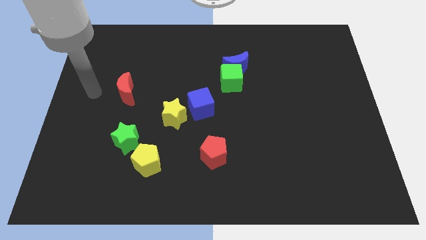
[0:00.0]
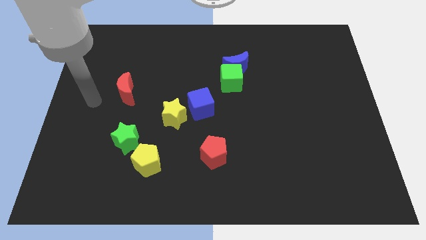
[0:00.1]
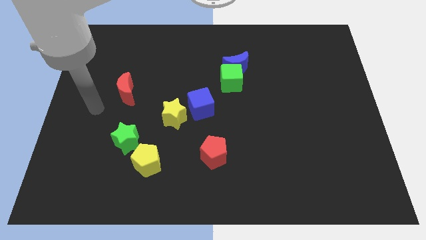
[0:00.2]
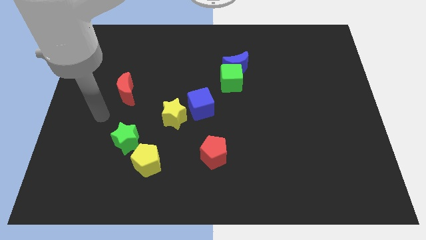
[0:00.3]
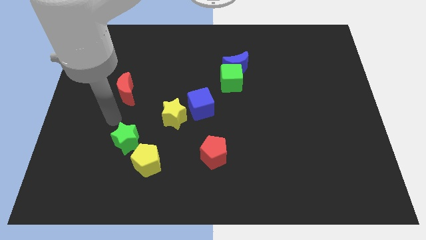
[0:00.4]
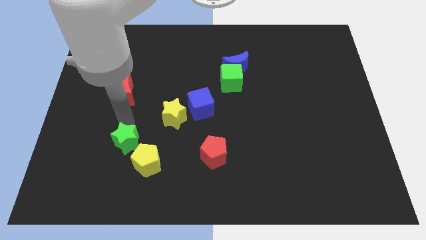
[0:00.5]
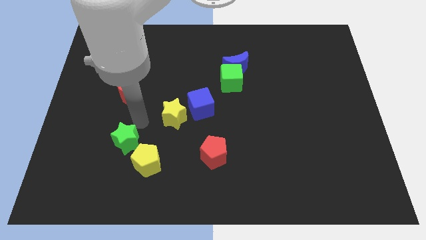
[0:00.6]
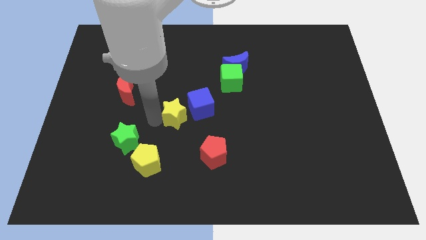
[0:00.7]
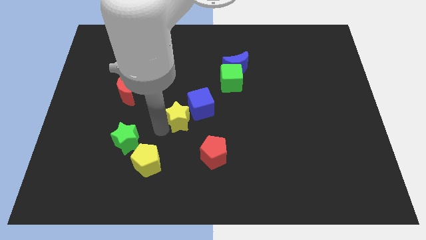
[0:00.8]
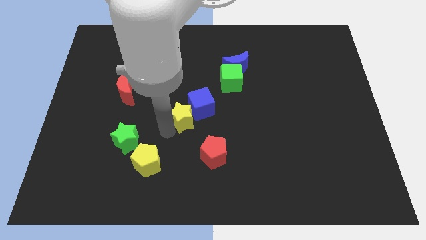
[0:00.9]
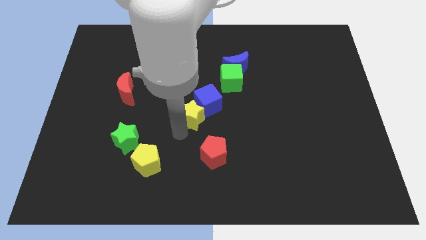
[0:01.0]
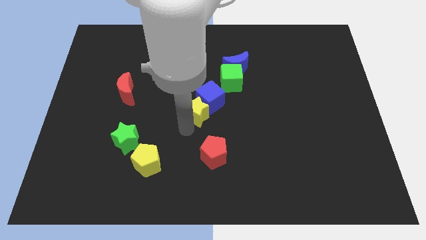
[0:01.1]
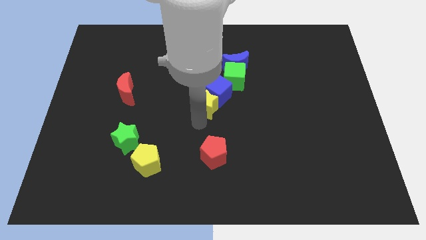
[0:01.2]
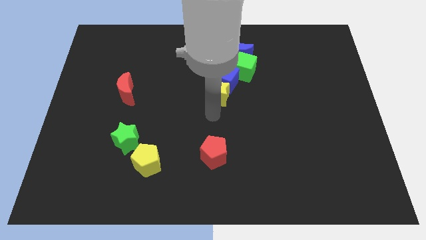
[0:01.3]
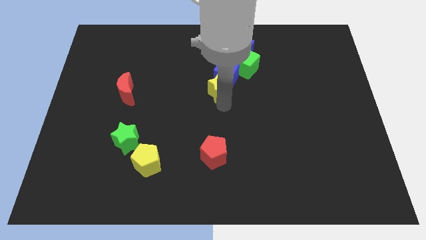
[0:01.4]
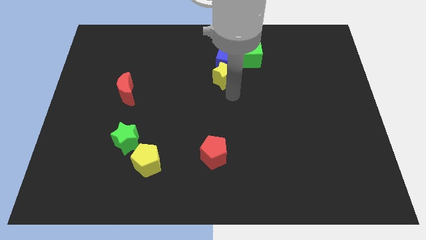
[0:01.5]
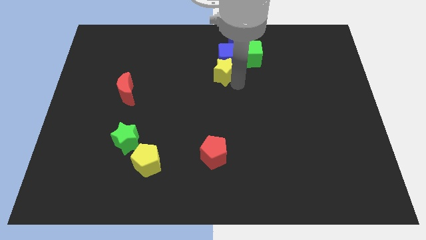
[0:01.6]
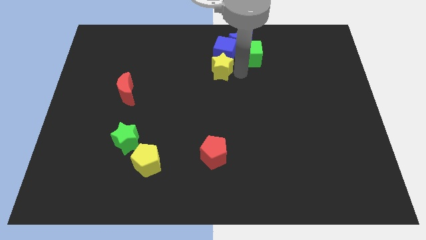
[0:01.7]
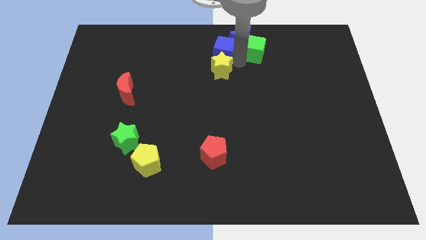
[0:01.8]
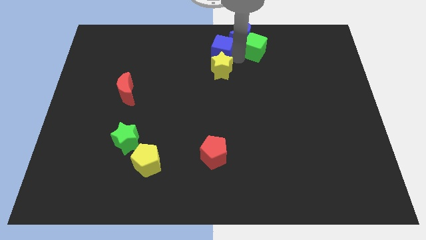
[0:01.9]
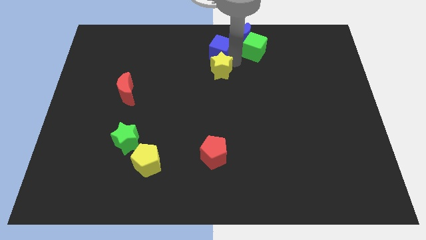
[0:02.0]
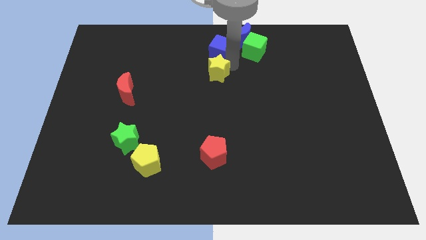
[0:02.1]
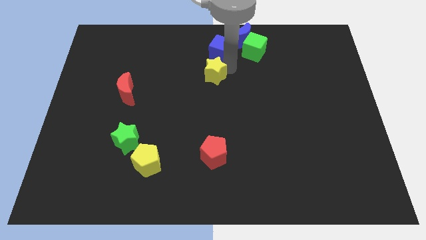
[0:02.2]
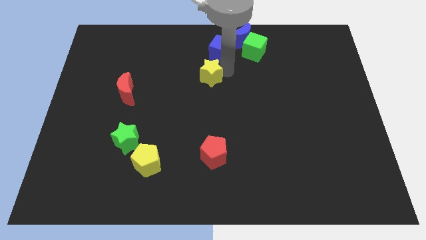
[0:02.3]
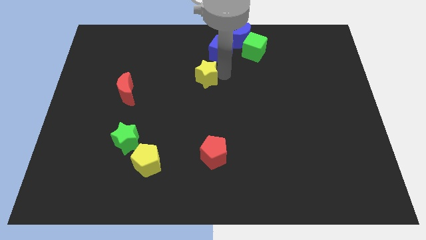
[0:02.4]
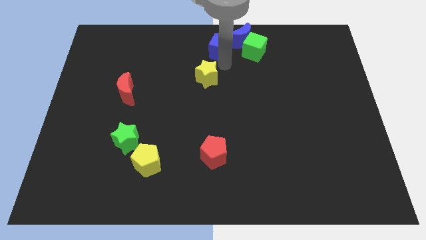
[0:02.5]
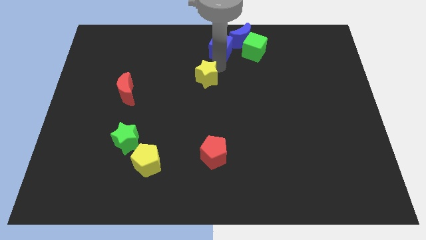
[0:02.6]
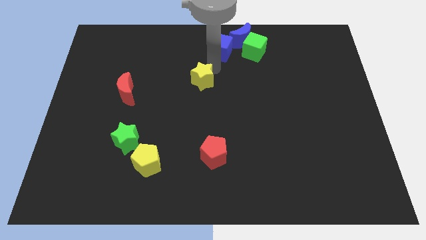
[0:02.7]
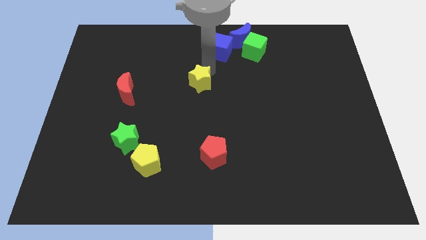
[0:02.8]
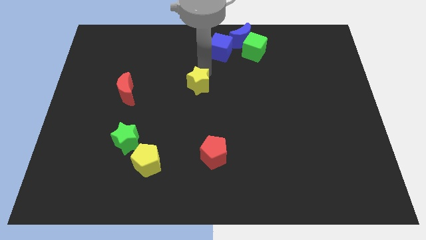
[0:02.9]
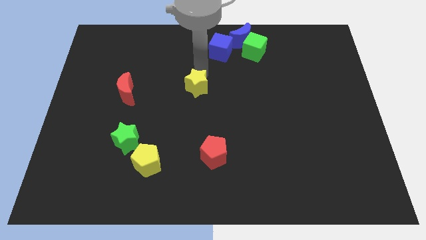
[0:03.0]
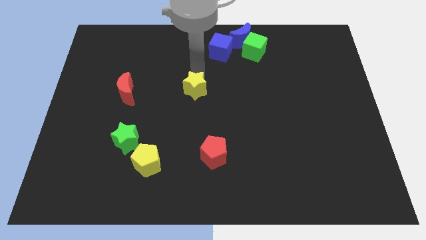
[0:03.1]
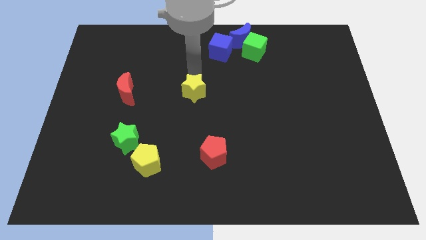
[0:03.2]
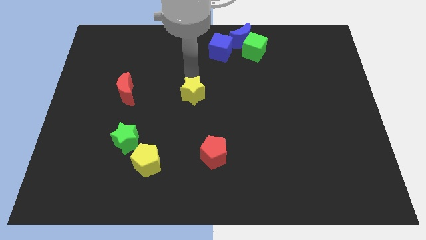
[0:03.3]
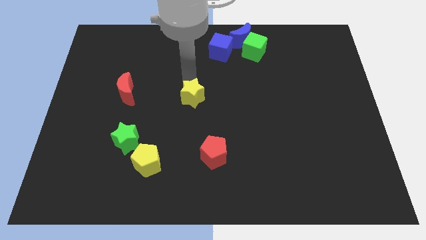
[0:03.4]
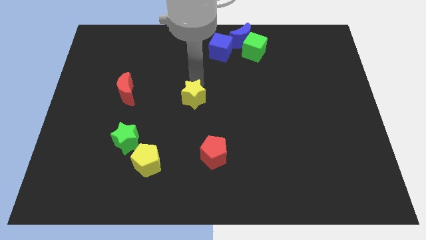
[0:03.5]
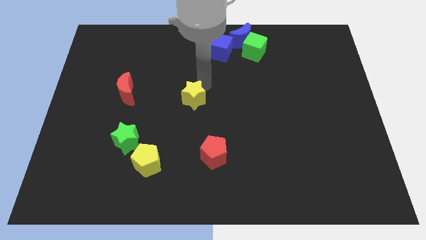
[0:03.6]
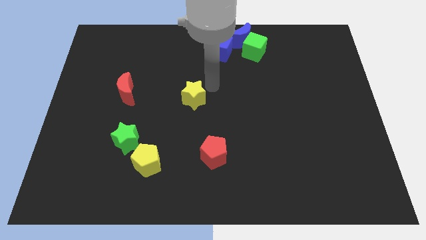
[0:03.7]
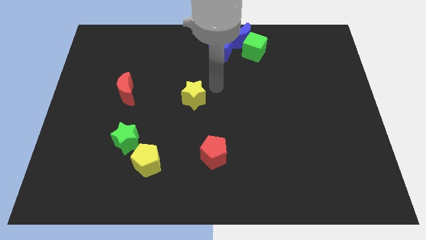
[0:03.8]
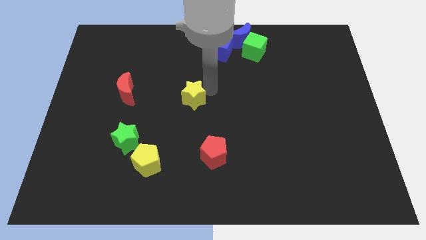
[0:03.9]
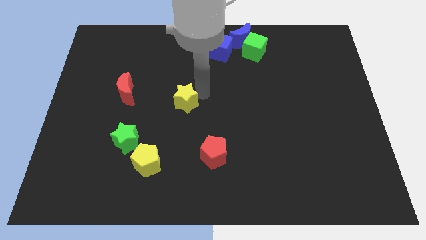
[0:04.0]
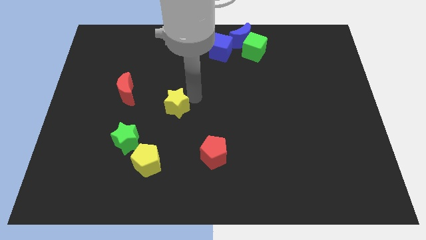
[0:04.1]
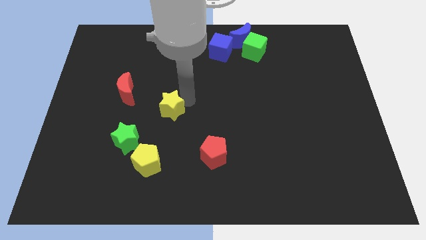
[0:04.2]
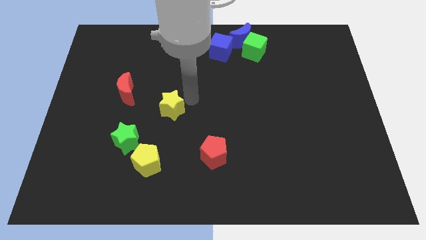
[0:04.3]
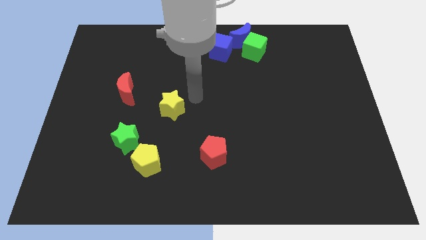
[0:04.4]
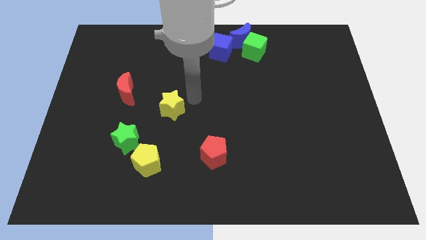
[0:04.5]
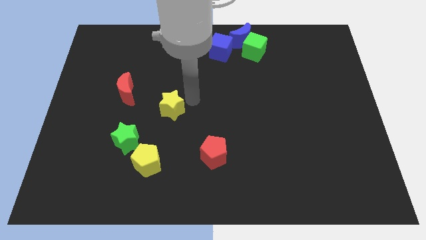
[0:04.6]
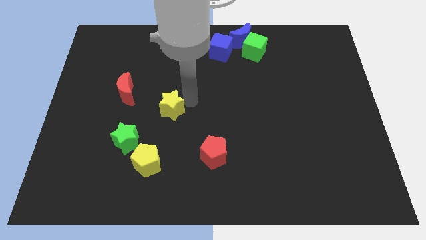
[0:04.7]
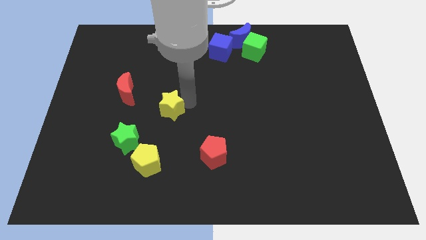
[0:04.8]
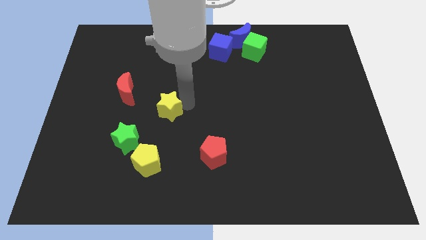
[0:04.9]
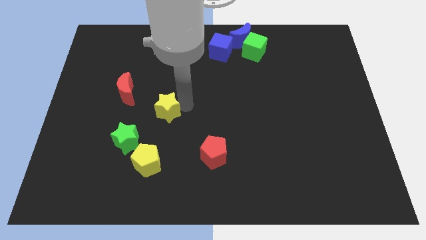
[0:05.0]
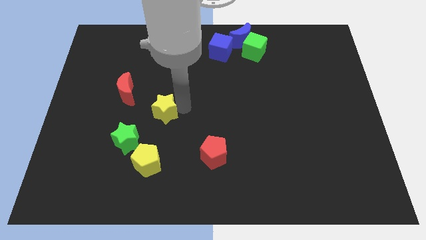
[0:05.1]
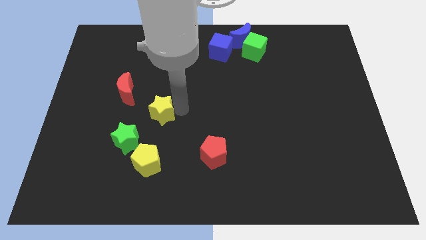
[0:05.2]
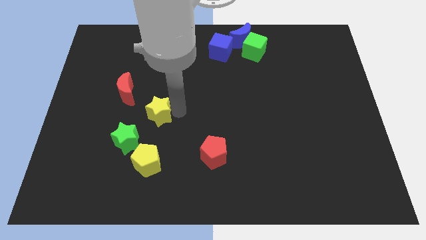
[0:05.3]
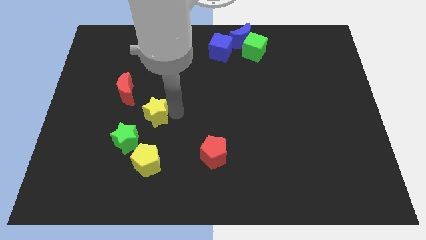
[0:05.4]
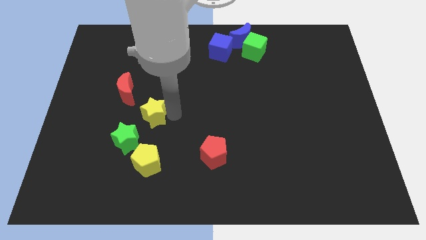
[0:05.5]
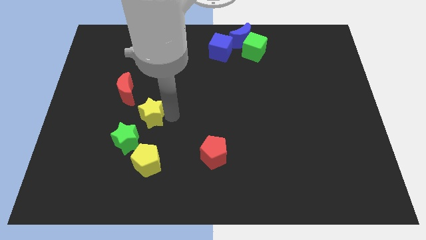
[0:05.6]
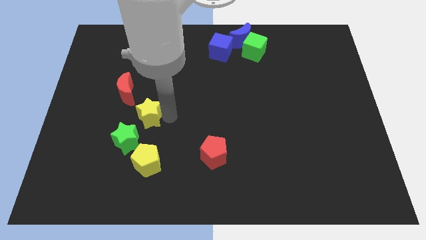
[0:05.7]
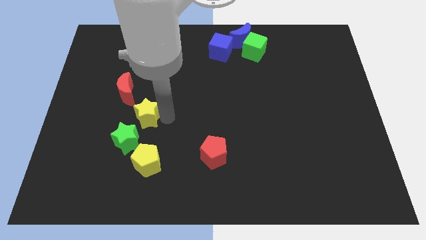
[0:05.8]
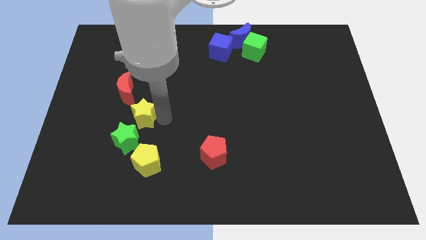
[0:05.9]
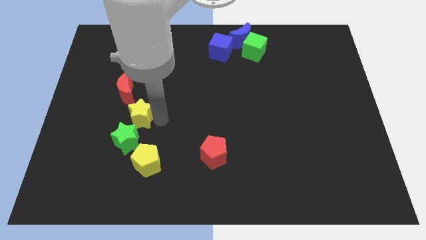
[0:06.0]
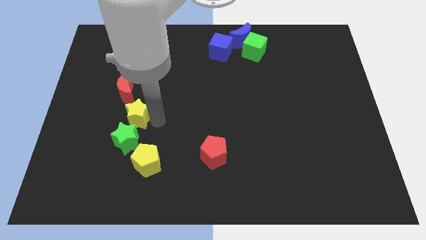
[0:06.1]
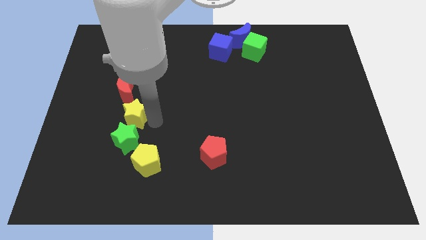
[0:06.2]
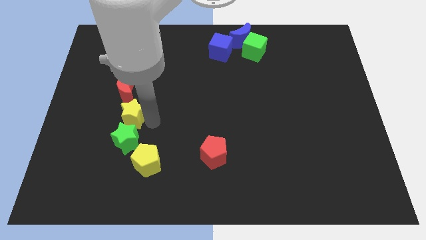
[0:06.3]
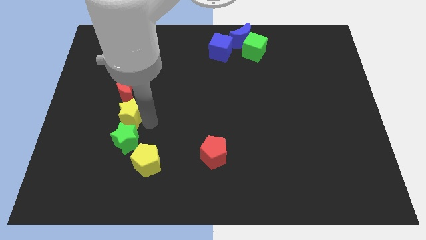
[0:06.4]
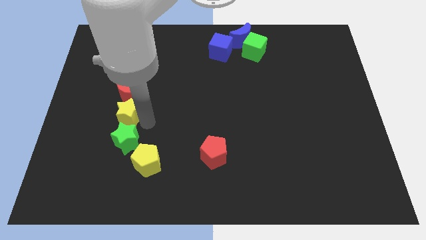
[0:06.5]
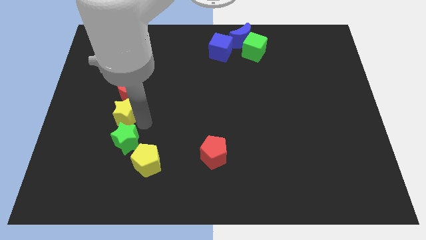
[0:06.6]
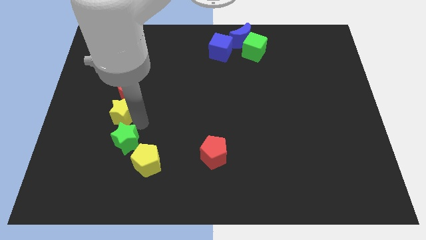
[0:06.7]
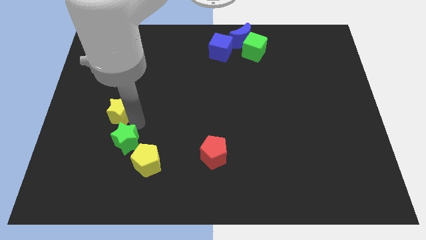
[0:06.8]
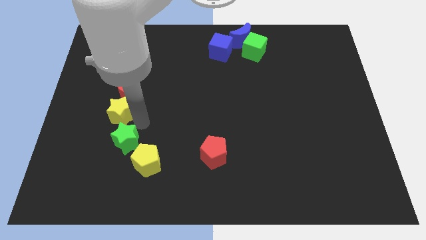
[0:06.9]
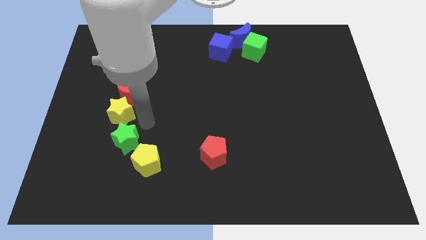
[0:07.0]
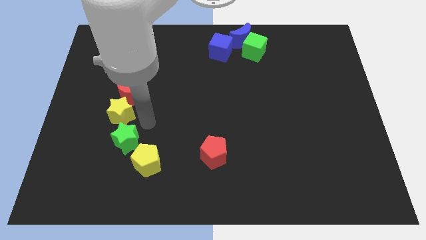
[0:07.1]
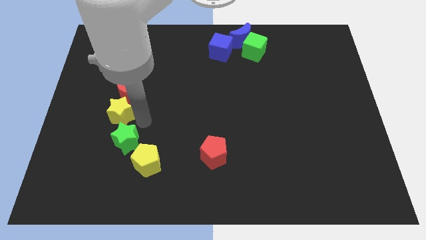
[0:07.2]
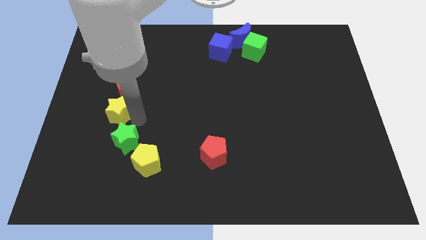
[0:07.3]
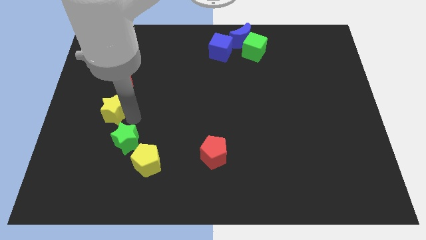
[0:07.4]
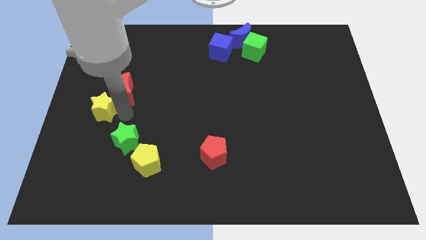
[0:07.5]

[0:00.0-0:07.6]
slide the yellow star to the left side
